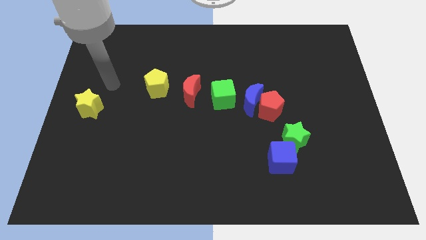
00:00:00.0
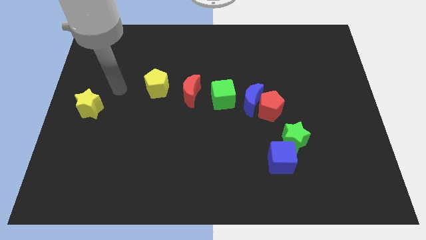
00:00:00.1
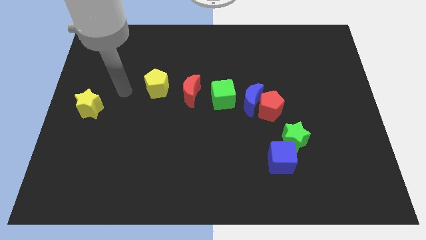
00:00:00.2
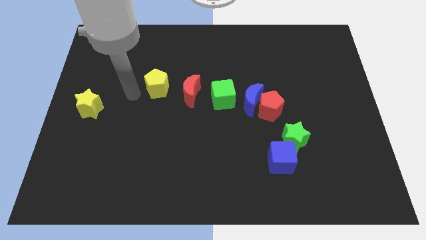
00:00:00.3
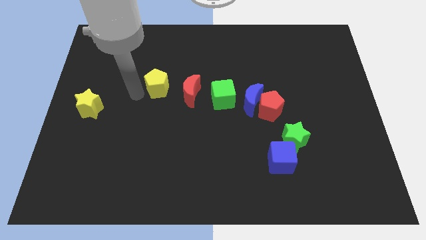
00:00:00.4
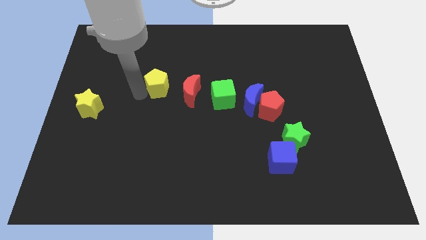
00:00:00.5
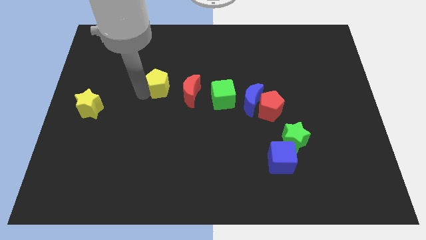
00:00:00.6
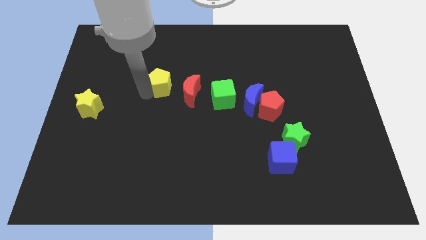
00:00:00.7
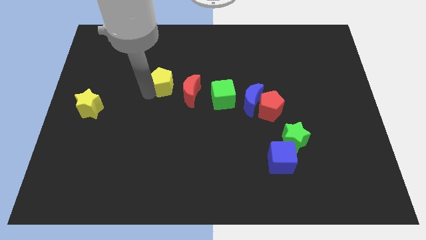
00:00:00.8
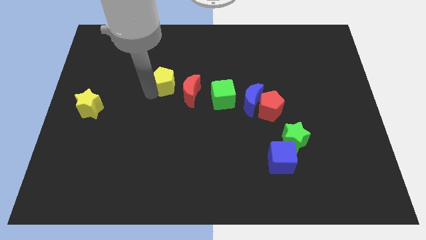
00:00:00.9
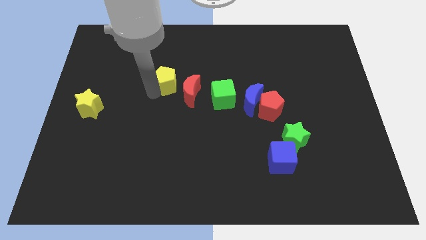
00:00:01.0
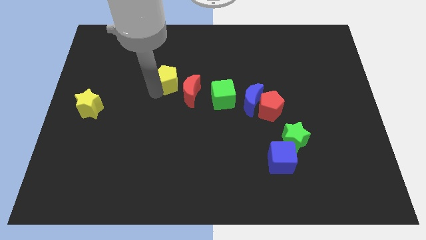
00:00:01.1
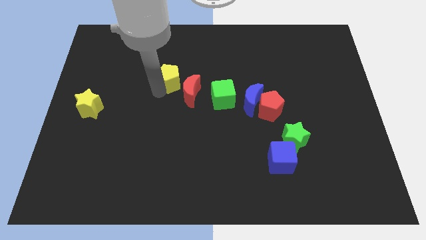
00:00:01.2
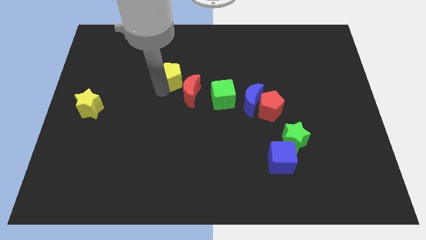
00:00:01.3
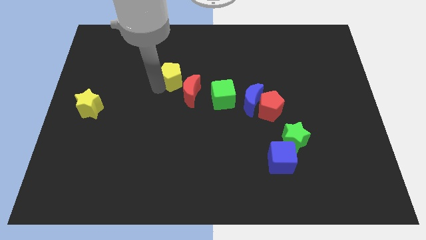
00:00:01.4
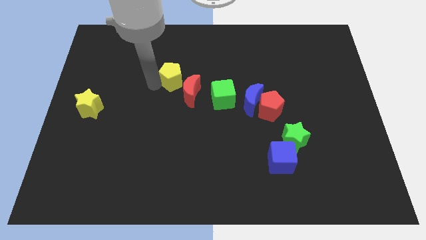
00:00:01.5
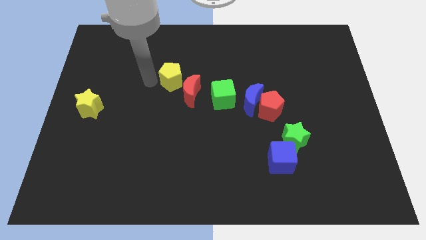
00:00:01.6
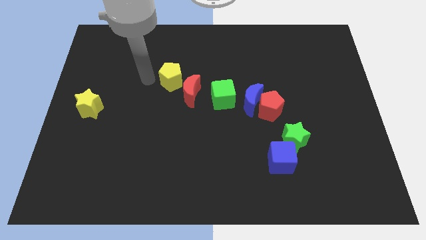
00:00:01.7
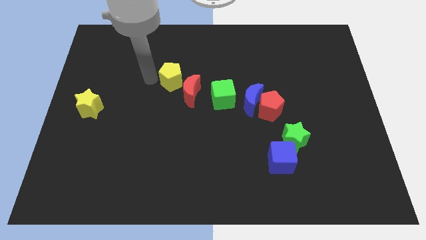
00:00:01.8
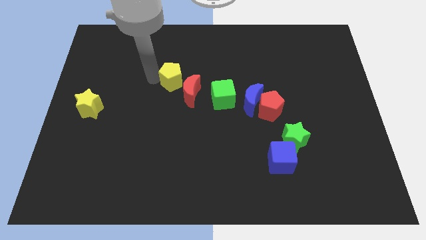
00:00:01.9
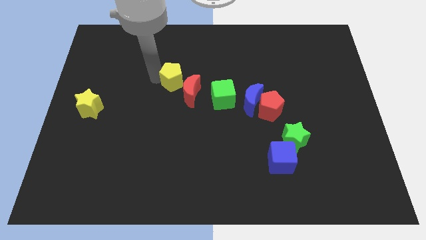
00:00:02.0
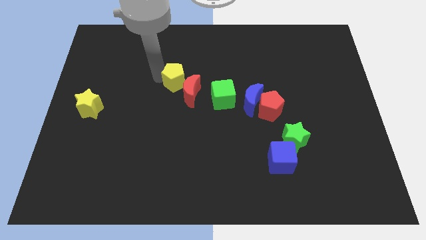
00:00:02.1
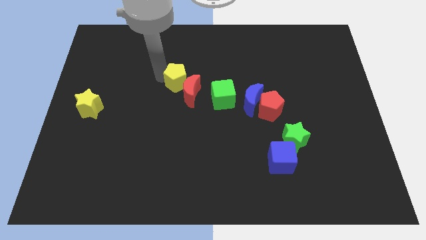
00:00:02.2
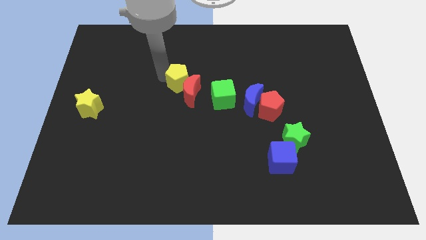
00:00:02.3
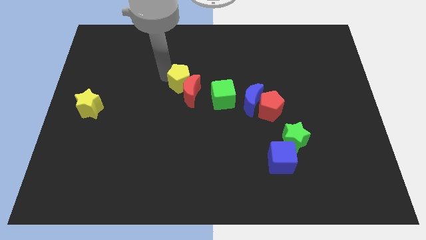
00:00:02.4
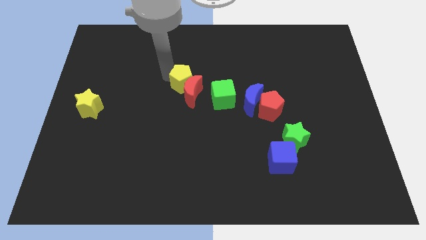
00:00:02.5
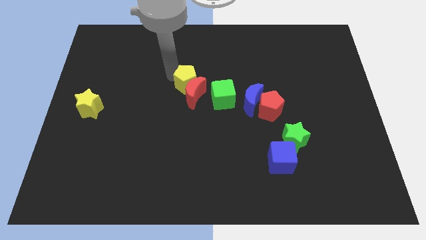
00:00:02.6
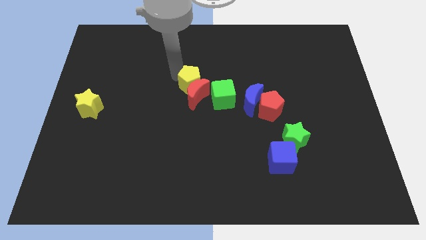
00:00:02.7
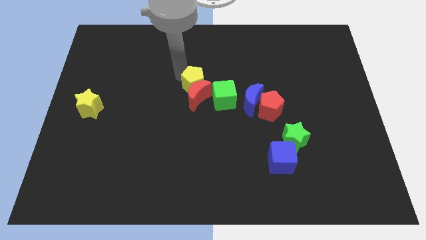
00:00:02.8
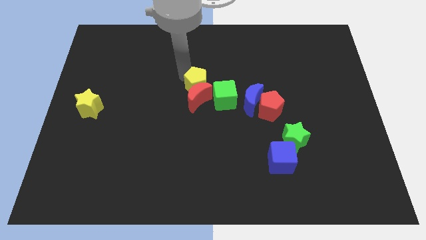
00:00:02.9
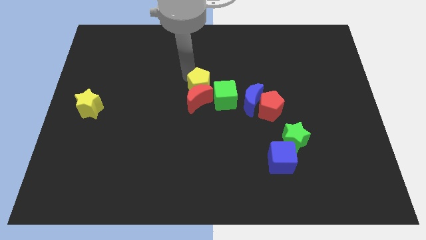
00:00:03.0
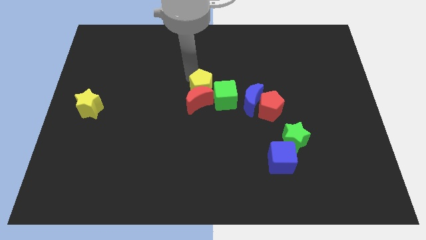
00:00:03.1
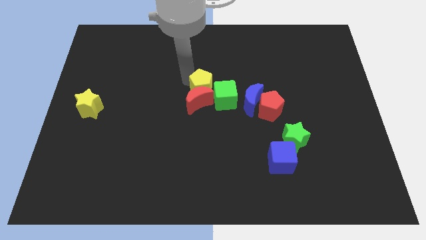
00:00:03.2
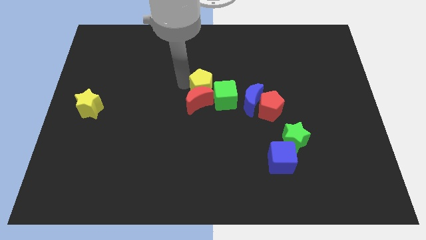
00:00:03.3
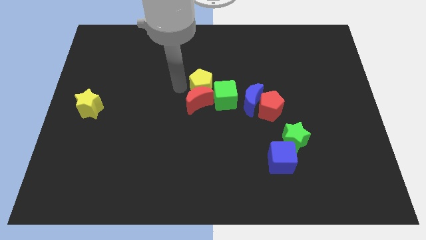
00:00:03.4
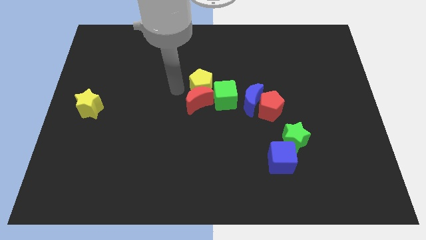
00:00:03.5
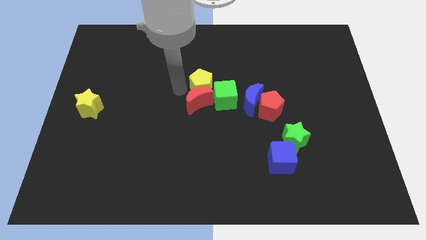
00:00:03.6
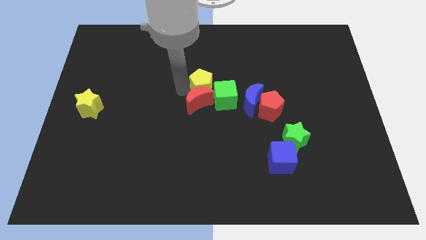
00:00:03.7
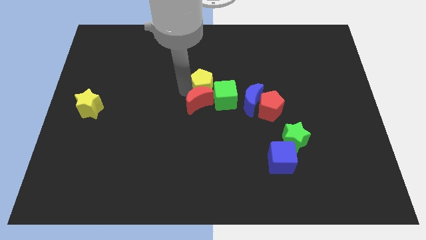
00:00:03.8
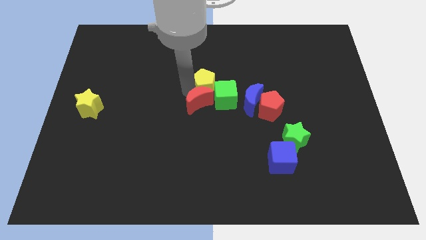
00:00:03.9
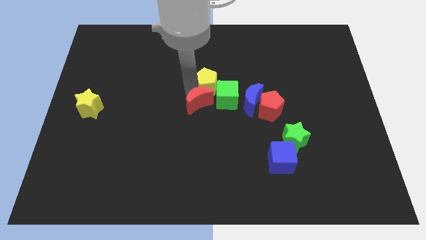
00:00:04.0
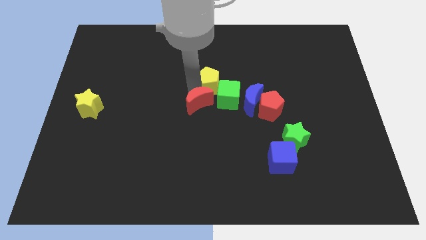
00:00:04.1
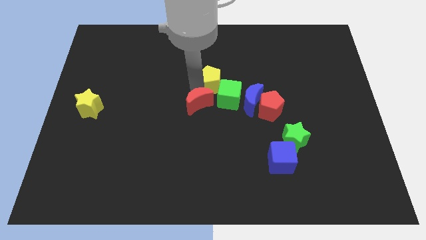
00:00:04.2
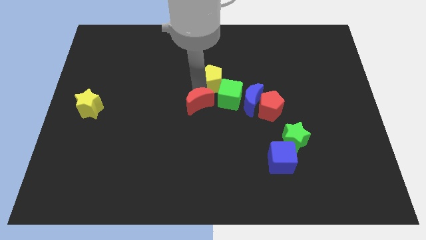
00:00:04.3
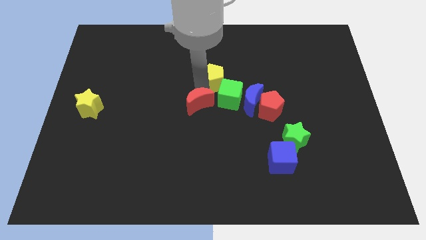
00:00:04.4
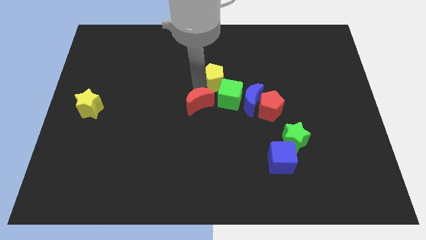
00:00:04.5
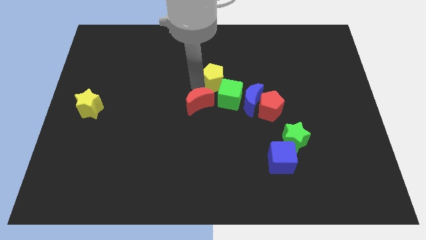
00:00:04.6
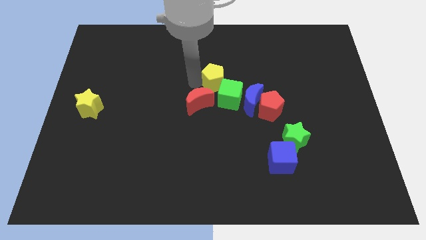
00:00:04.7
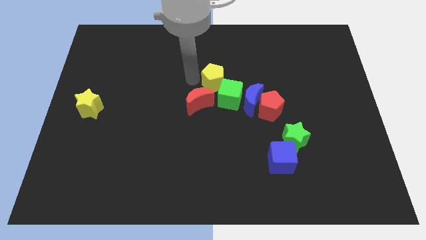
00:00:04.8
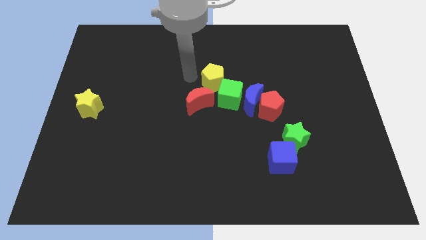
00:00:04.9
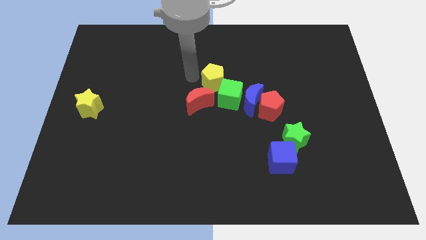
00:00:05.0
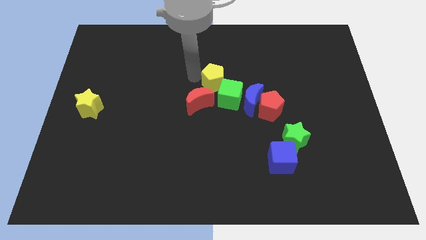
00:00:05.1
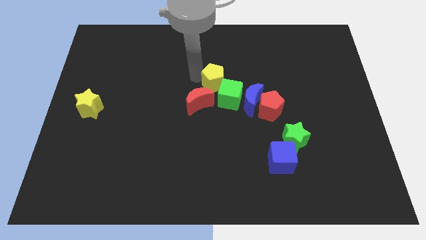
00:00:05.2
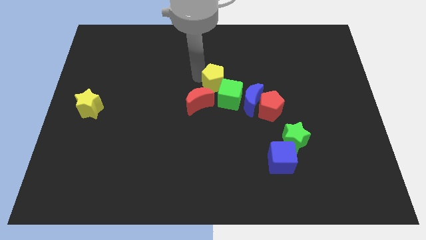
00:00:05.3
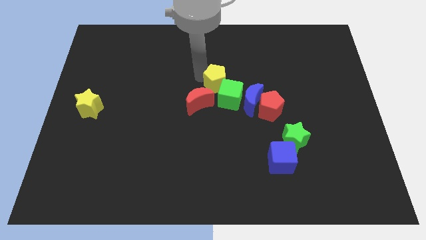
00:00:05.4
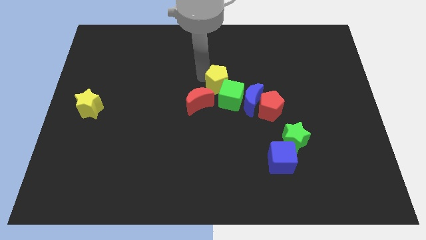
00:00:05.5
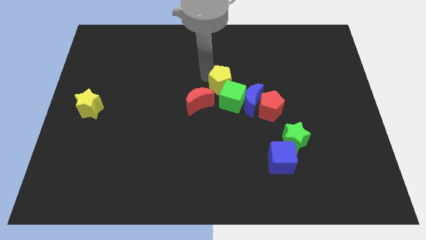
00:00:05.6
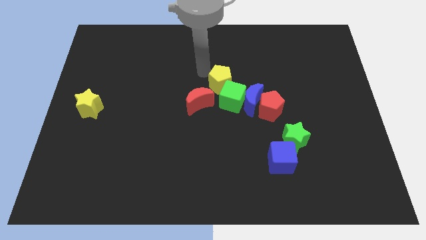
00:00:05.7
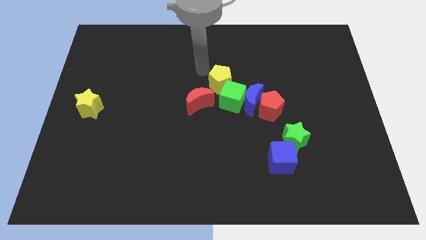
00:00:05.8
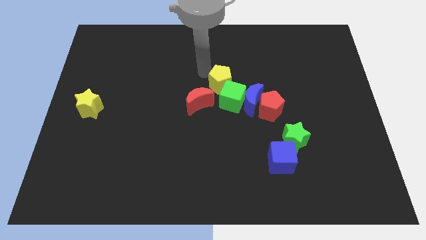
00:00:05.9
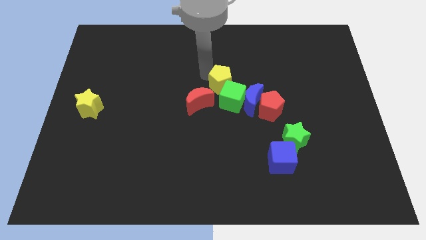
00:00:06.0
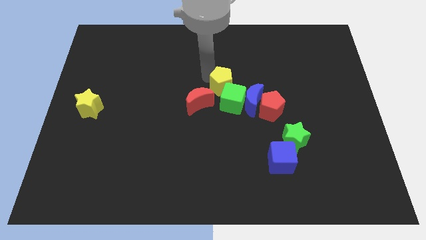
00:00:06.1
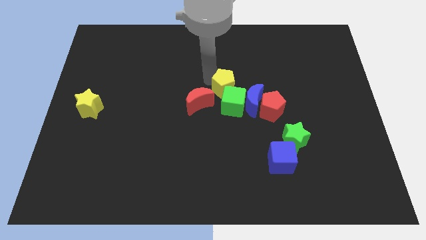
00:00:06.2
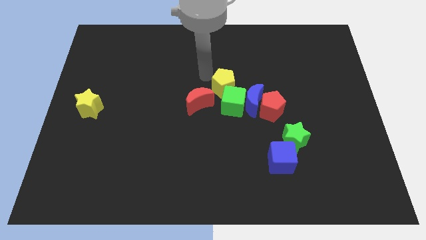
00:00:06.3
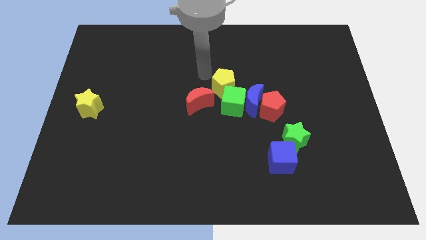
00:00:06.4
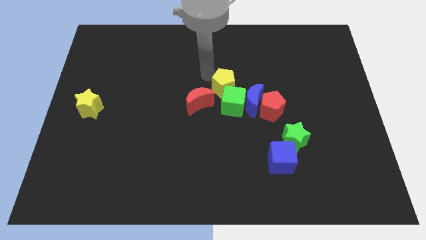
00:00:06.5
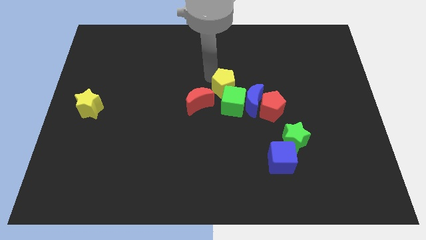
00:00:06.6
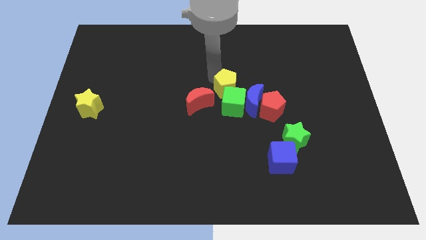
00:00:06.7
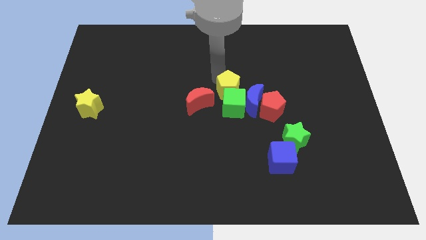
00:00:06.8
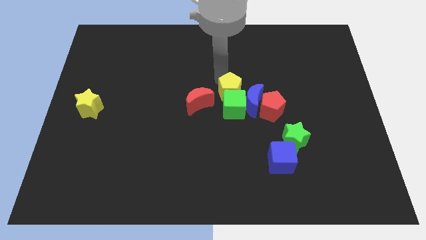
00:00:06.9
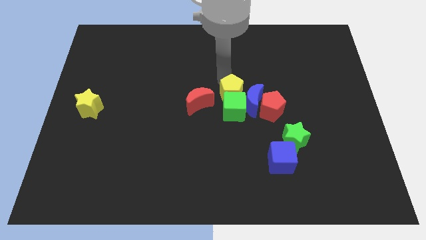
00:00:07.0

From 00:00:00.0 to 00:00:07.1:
move the yellow pentagon next to the blue moon

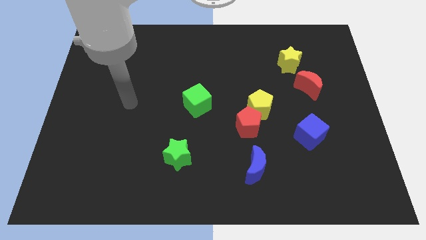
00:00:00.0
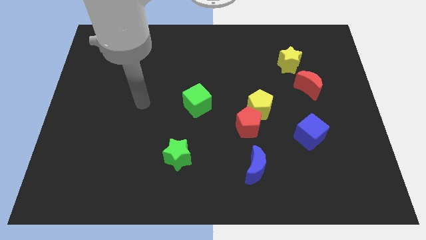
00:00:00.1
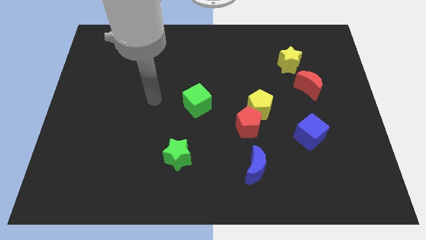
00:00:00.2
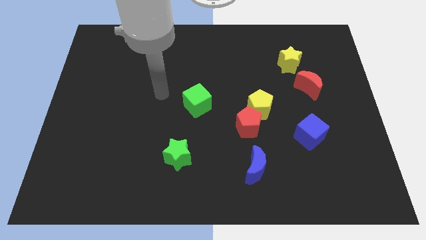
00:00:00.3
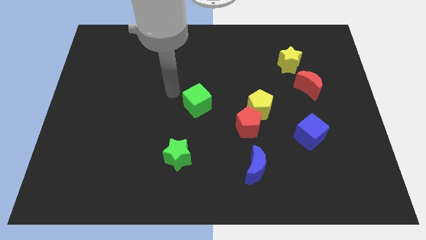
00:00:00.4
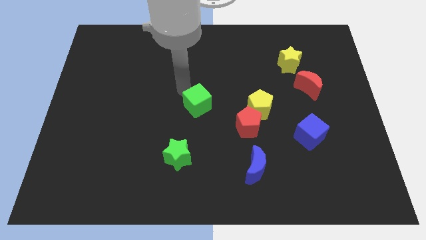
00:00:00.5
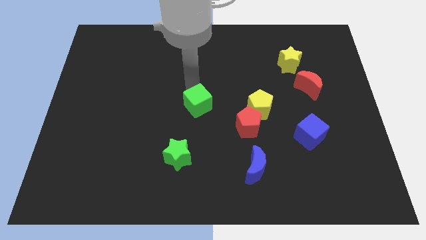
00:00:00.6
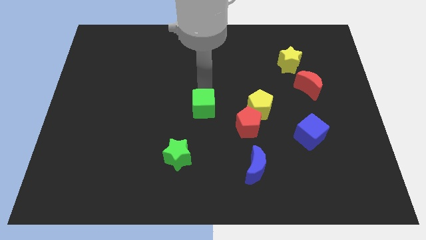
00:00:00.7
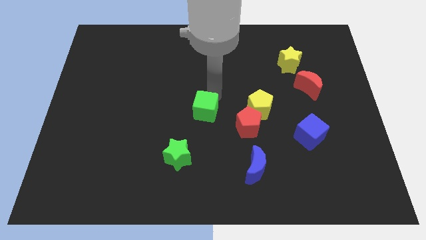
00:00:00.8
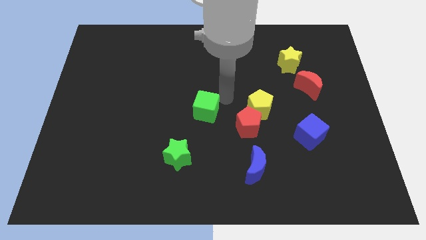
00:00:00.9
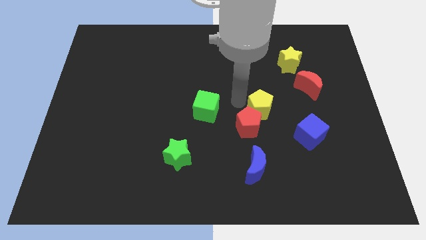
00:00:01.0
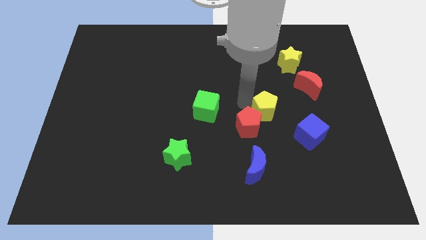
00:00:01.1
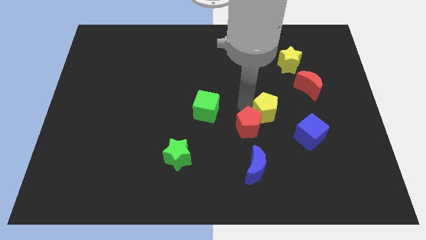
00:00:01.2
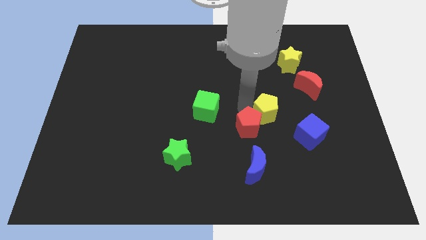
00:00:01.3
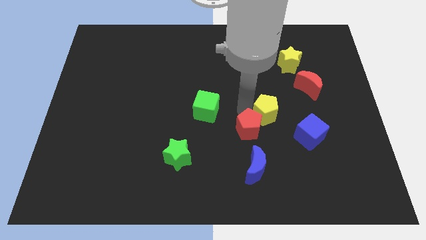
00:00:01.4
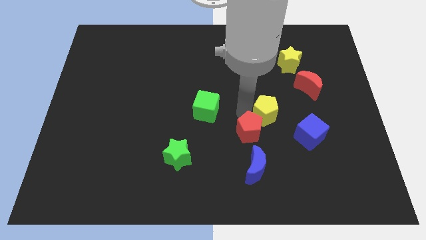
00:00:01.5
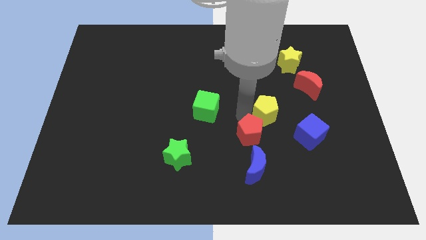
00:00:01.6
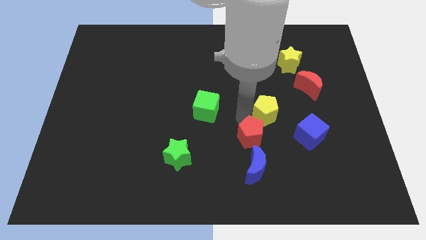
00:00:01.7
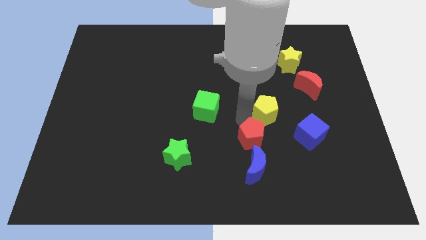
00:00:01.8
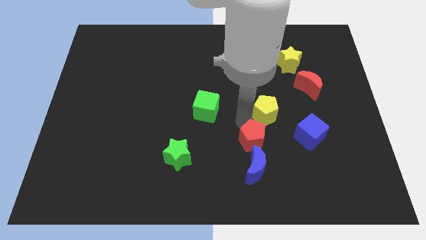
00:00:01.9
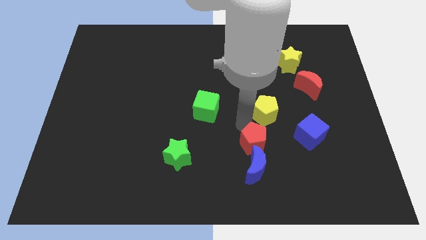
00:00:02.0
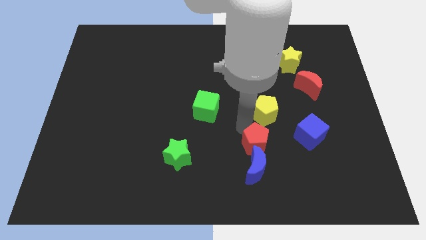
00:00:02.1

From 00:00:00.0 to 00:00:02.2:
move the red pentagon towards the blue moon
